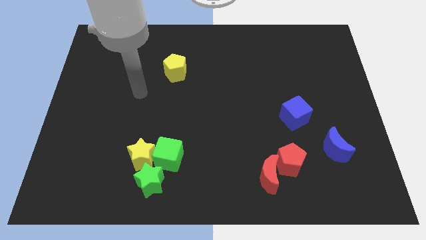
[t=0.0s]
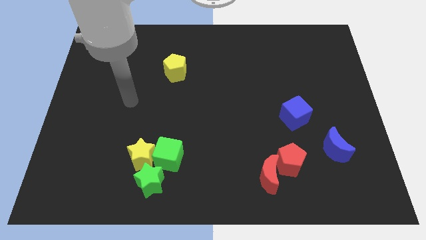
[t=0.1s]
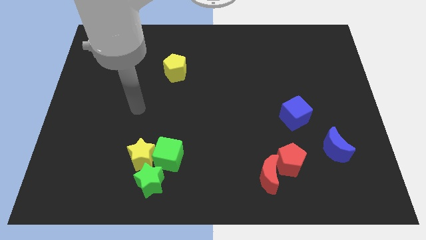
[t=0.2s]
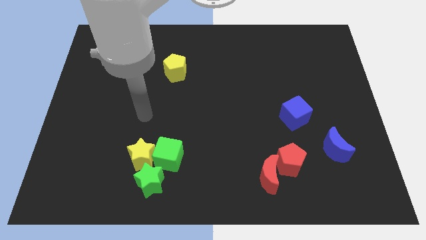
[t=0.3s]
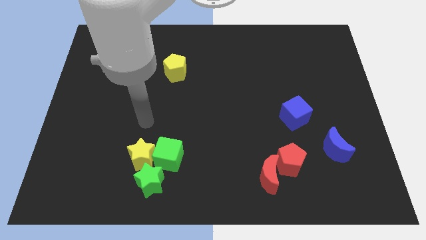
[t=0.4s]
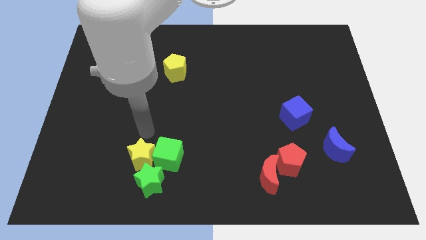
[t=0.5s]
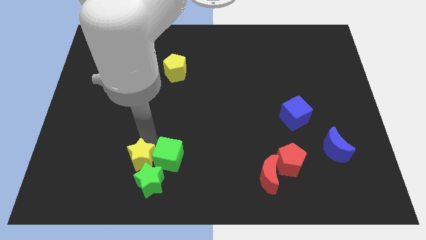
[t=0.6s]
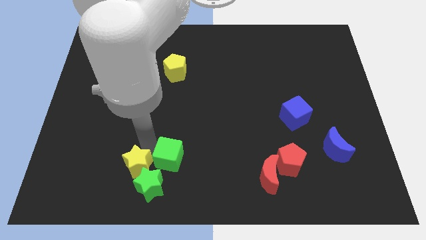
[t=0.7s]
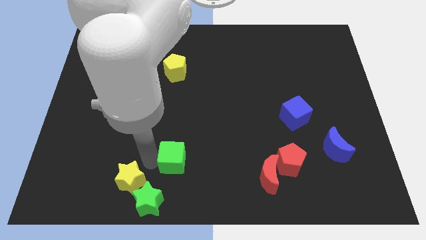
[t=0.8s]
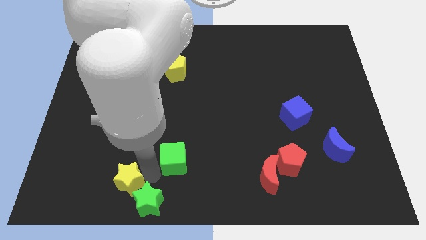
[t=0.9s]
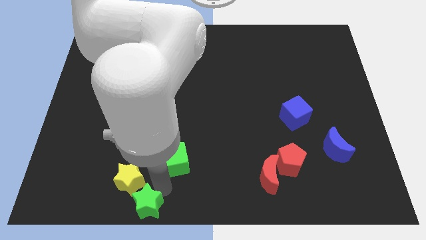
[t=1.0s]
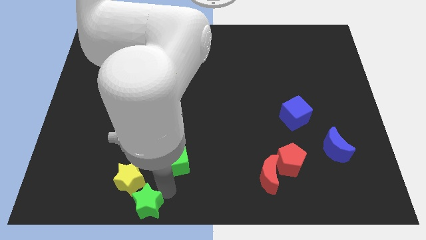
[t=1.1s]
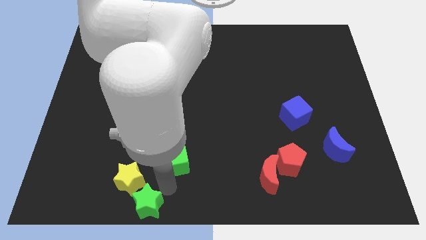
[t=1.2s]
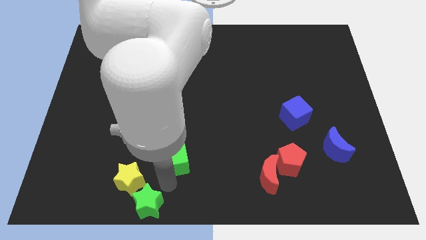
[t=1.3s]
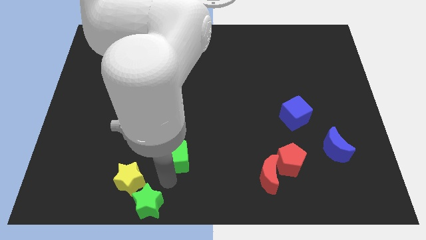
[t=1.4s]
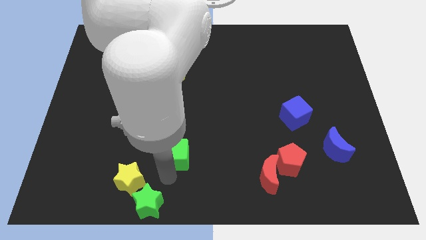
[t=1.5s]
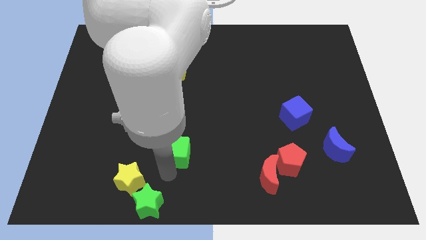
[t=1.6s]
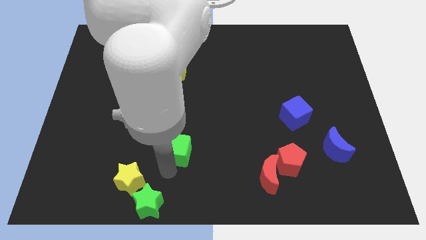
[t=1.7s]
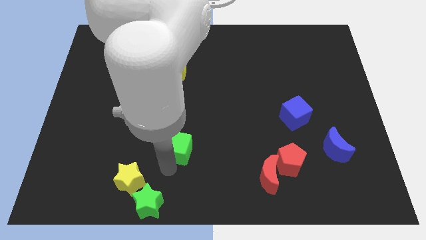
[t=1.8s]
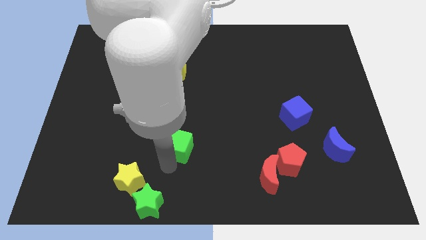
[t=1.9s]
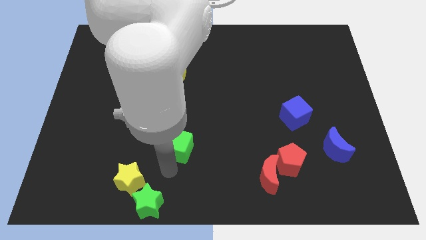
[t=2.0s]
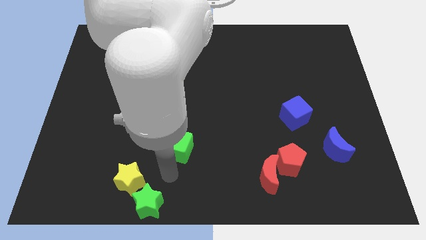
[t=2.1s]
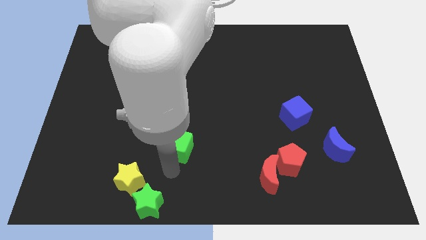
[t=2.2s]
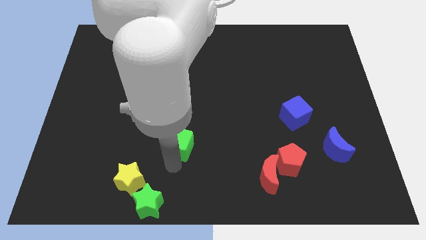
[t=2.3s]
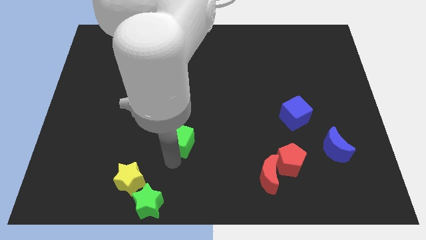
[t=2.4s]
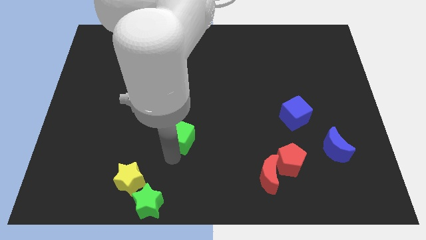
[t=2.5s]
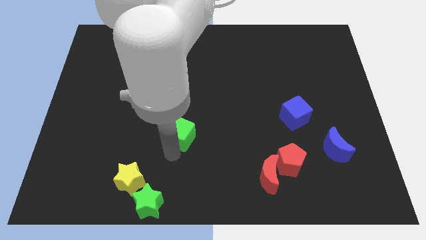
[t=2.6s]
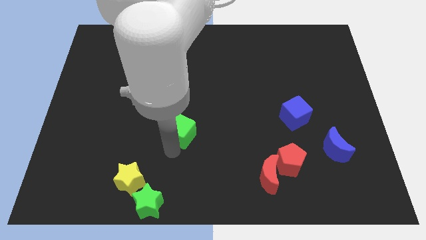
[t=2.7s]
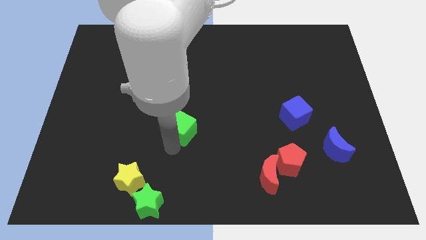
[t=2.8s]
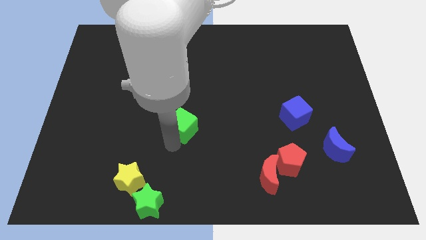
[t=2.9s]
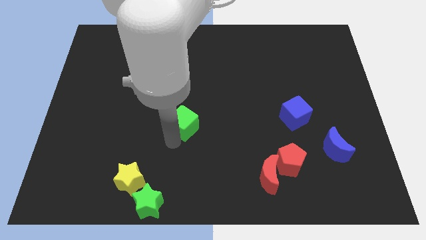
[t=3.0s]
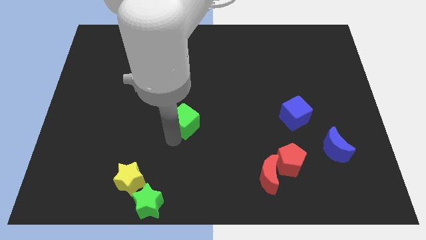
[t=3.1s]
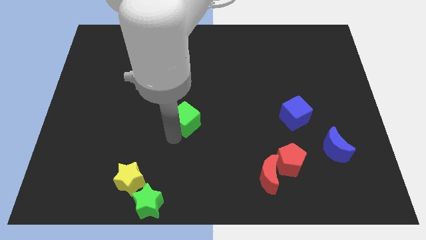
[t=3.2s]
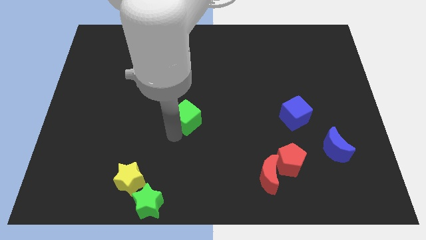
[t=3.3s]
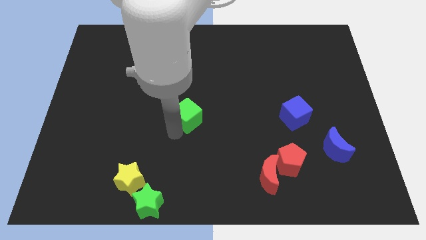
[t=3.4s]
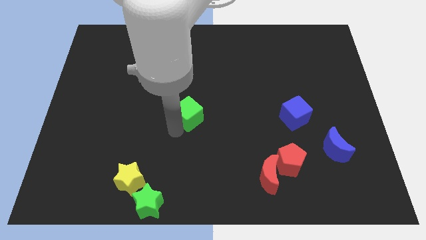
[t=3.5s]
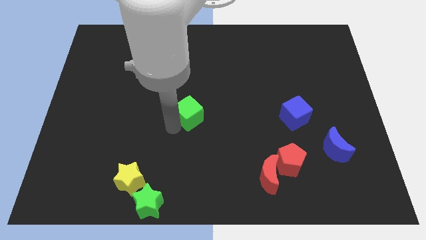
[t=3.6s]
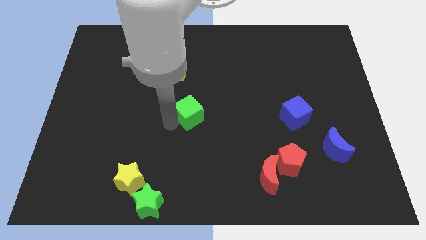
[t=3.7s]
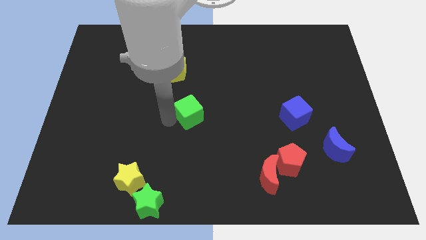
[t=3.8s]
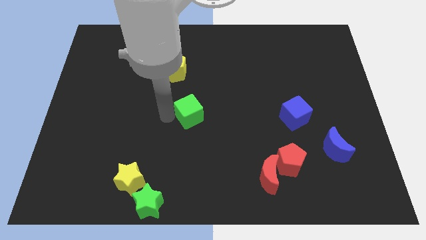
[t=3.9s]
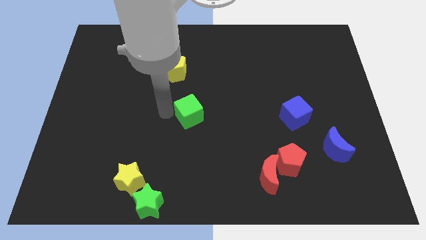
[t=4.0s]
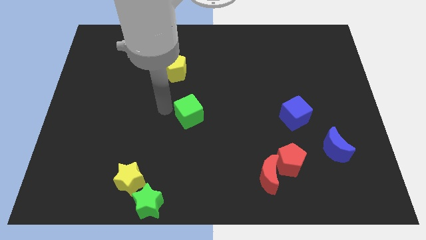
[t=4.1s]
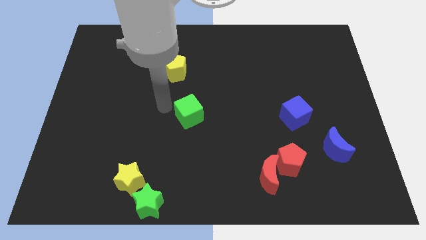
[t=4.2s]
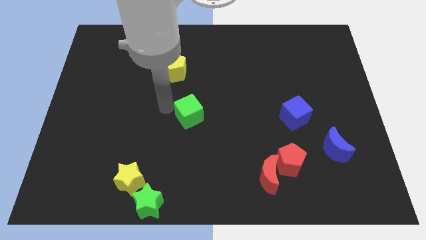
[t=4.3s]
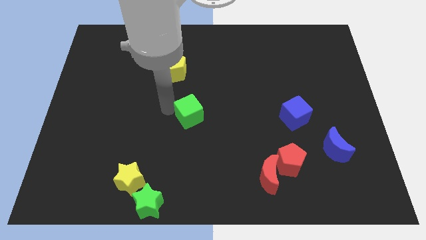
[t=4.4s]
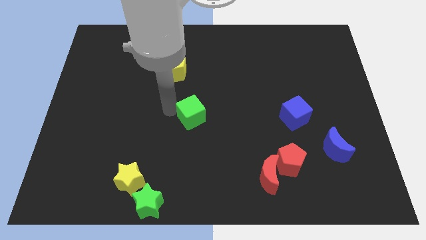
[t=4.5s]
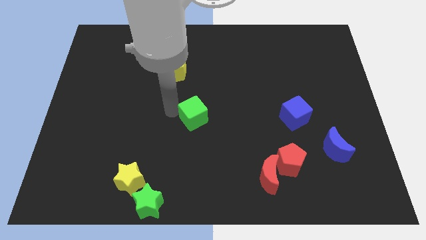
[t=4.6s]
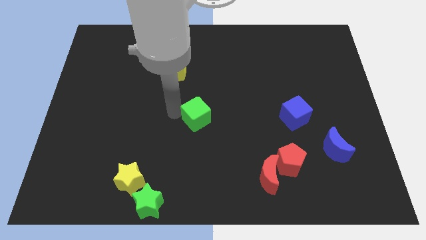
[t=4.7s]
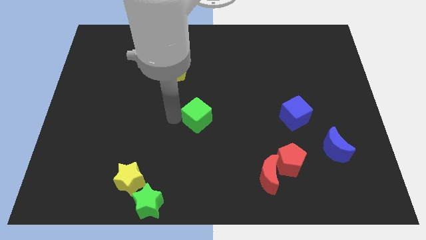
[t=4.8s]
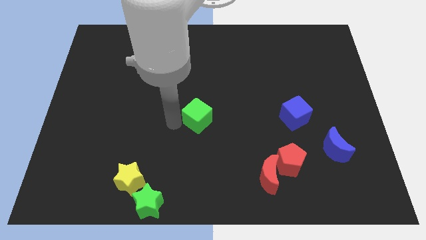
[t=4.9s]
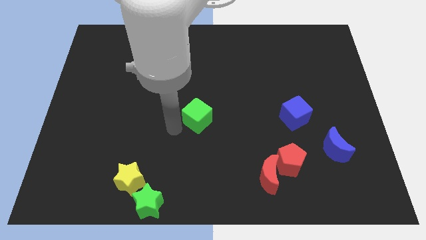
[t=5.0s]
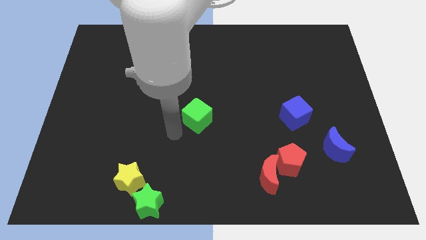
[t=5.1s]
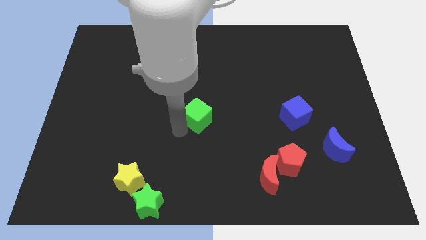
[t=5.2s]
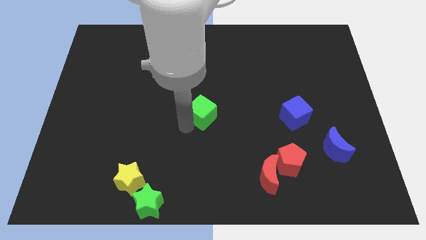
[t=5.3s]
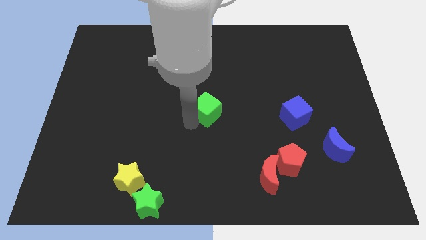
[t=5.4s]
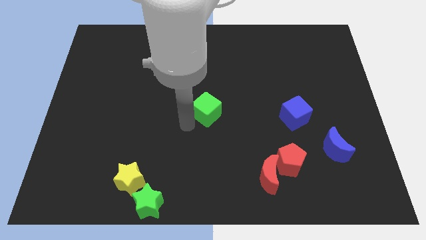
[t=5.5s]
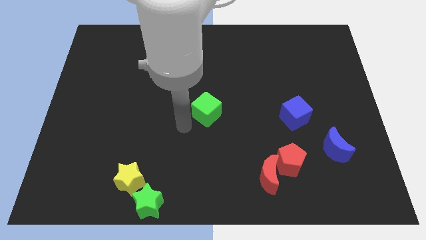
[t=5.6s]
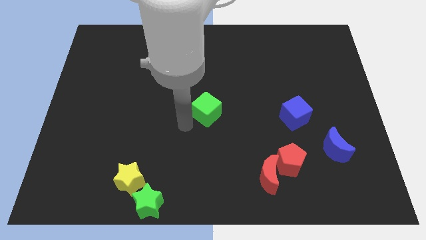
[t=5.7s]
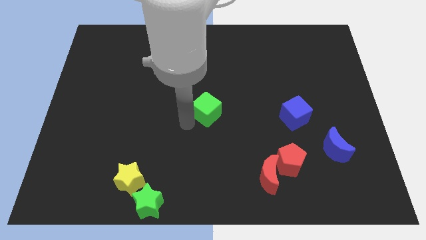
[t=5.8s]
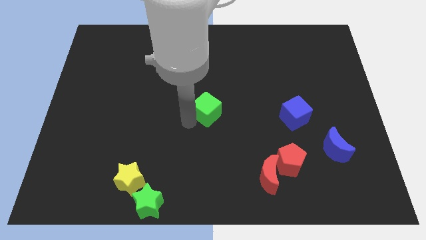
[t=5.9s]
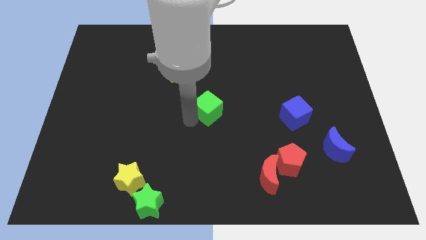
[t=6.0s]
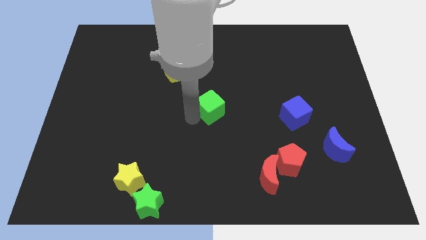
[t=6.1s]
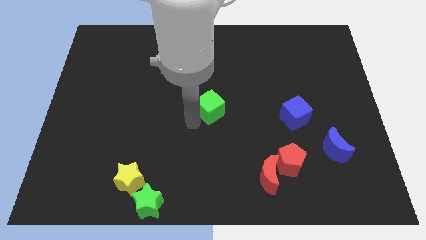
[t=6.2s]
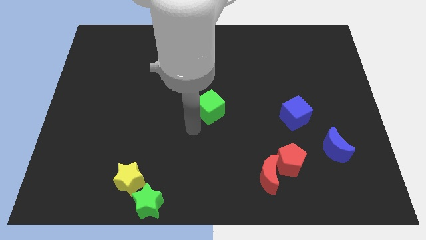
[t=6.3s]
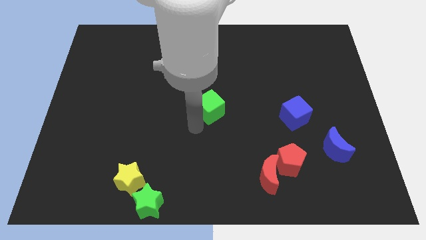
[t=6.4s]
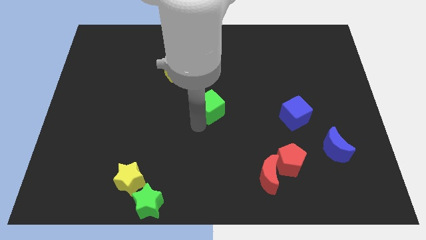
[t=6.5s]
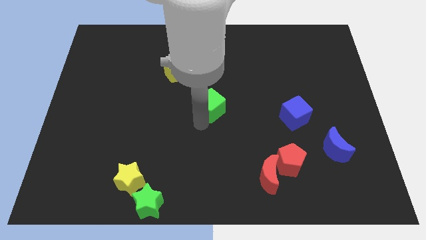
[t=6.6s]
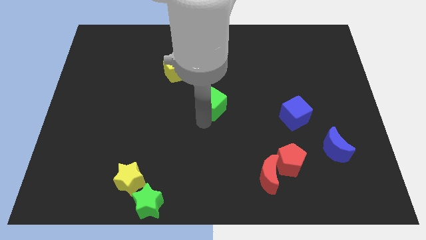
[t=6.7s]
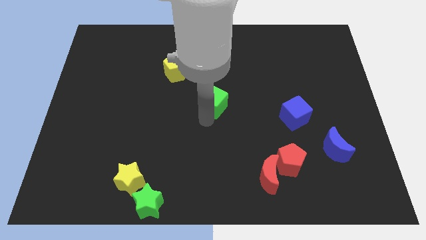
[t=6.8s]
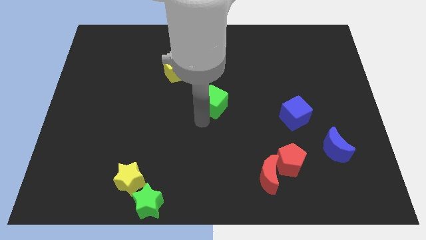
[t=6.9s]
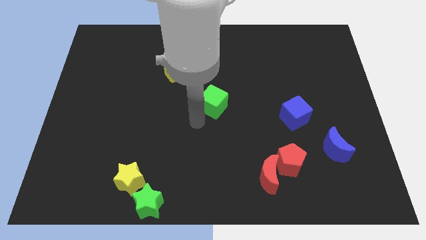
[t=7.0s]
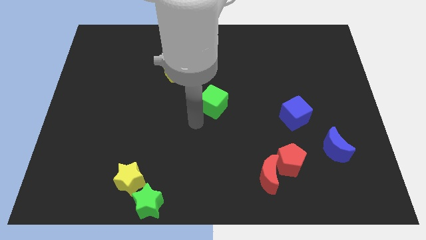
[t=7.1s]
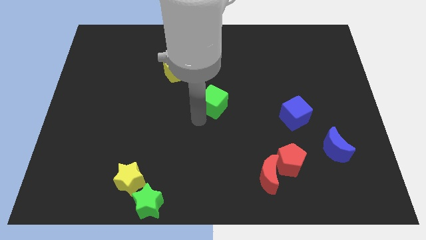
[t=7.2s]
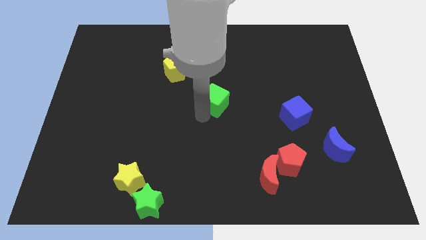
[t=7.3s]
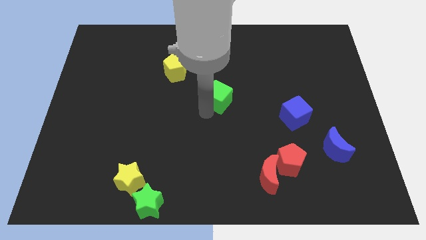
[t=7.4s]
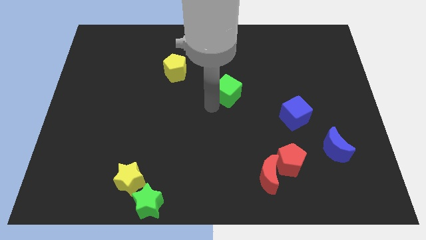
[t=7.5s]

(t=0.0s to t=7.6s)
move the green cube diagonally upwards and to the right

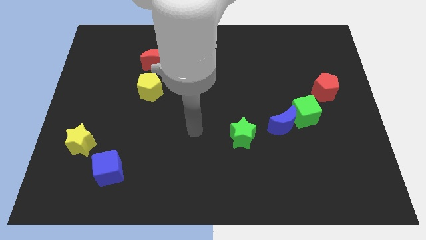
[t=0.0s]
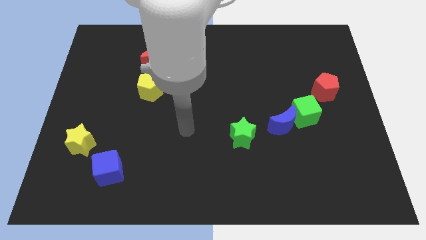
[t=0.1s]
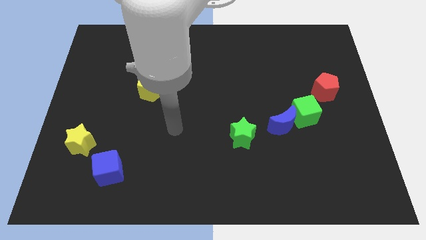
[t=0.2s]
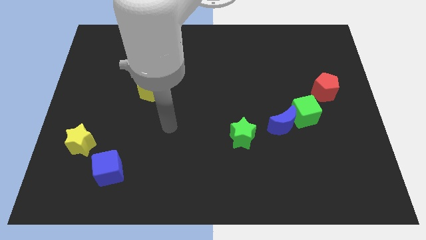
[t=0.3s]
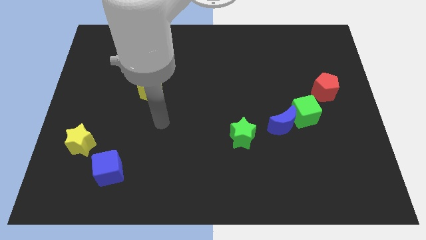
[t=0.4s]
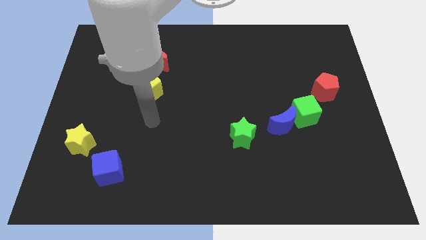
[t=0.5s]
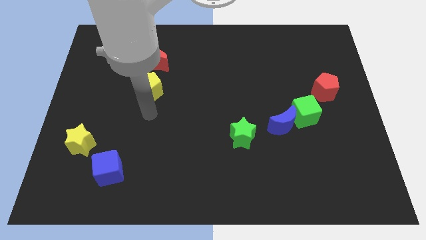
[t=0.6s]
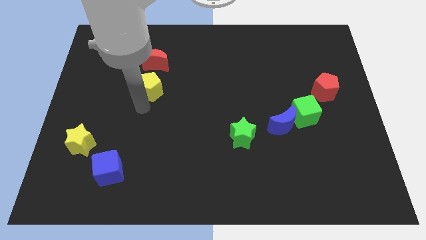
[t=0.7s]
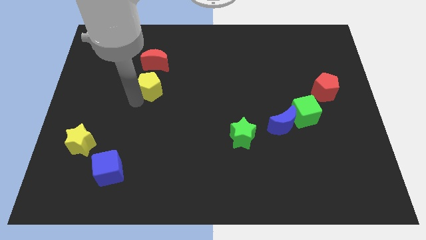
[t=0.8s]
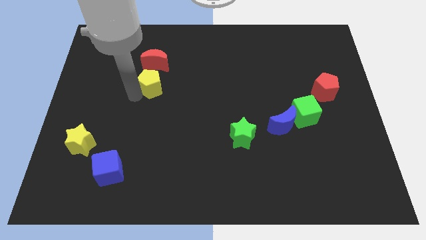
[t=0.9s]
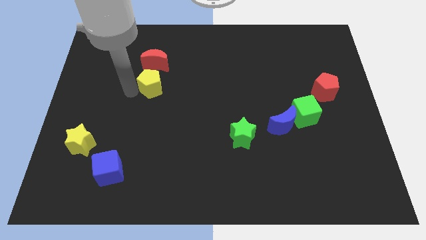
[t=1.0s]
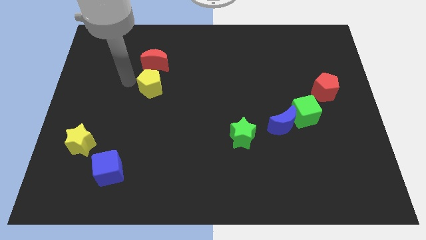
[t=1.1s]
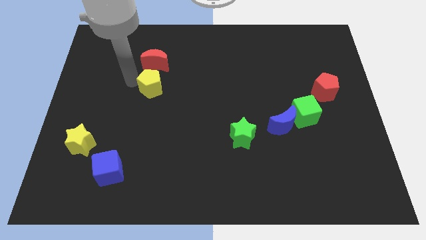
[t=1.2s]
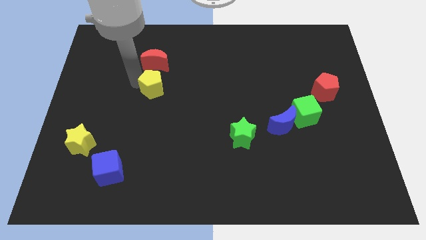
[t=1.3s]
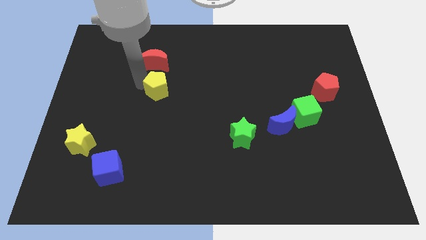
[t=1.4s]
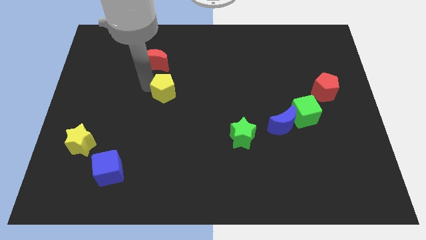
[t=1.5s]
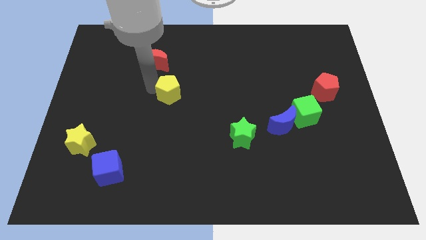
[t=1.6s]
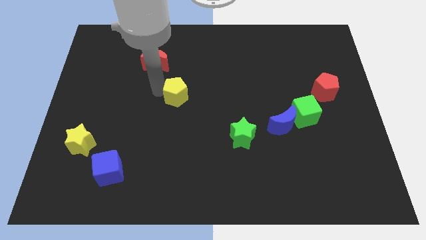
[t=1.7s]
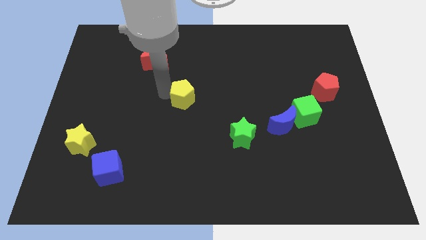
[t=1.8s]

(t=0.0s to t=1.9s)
push the yellow pentagon right slightly
